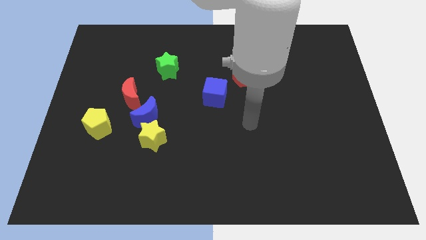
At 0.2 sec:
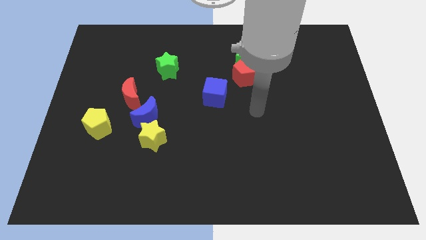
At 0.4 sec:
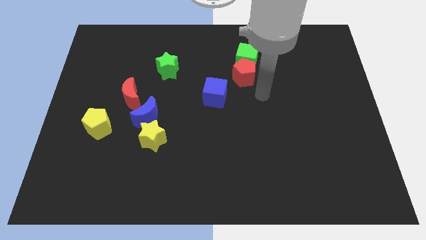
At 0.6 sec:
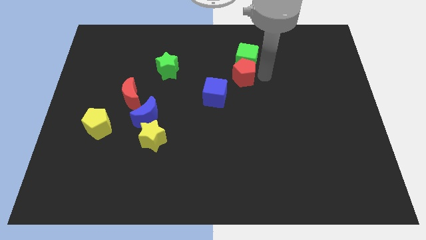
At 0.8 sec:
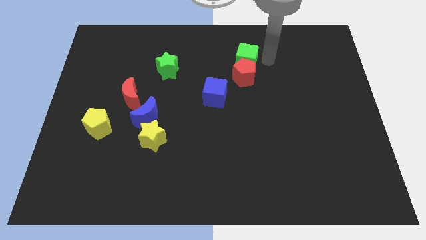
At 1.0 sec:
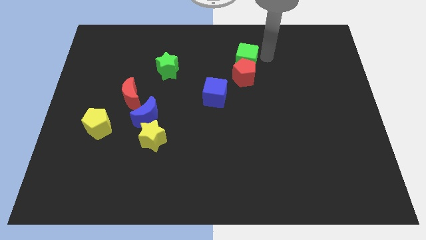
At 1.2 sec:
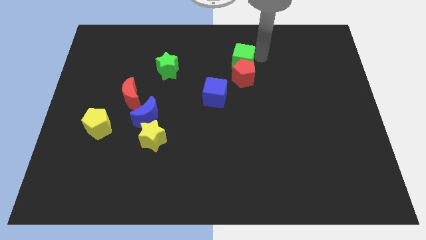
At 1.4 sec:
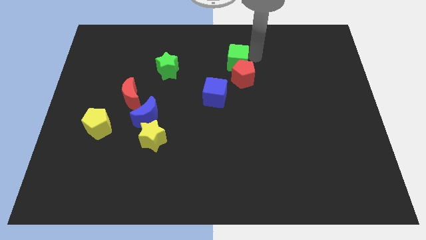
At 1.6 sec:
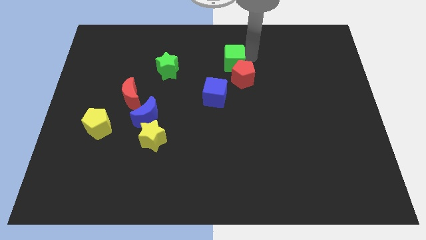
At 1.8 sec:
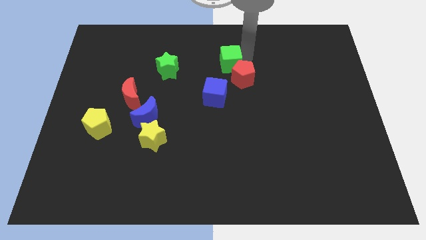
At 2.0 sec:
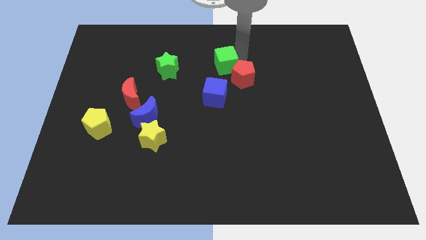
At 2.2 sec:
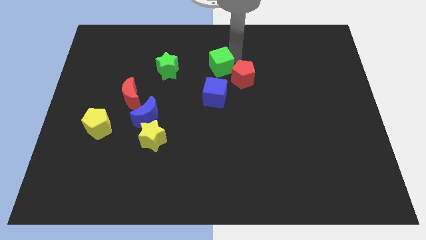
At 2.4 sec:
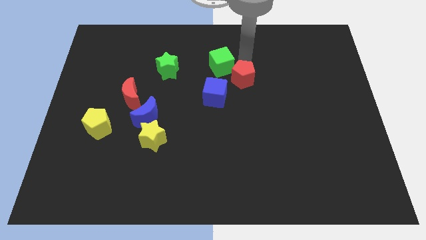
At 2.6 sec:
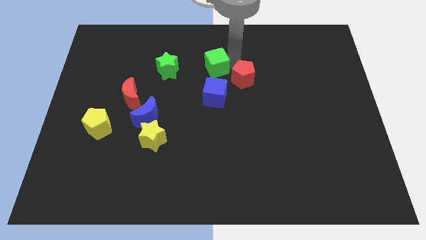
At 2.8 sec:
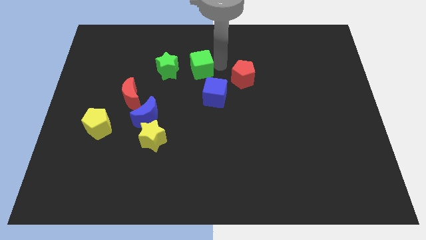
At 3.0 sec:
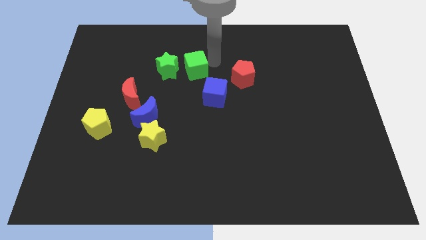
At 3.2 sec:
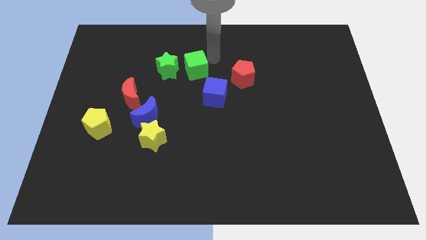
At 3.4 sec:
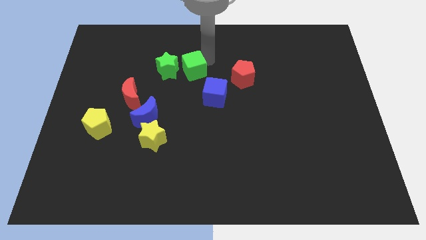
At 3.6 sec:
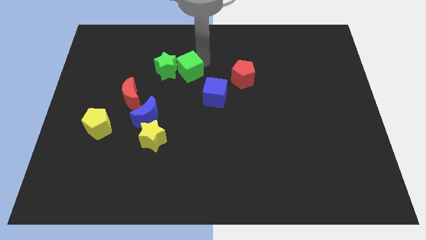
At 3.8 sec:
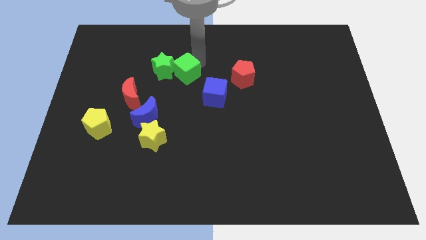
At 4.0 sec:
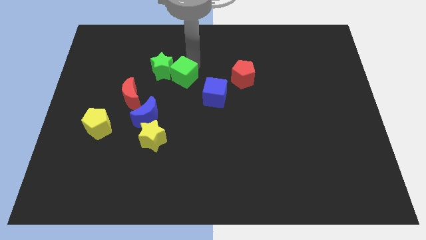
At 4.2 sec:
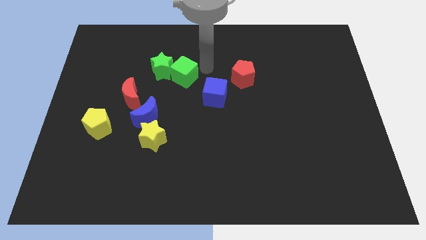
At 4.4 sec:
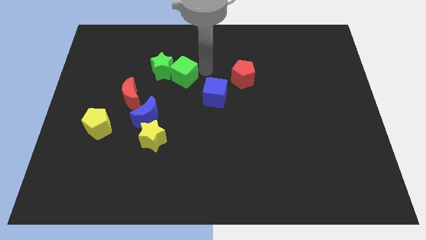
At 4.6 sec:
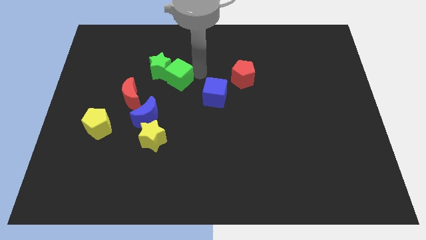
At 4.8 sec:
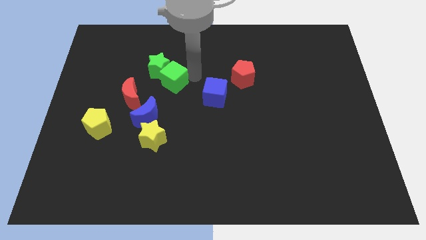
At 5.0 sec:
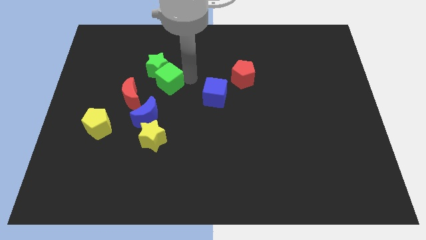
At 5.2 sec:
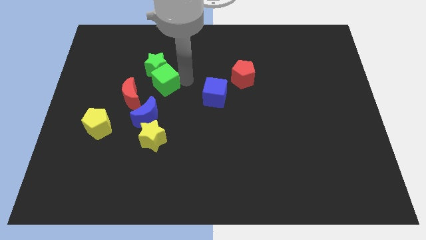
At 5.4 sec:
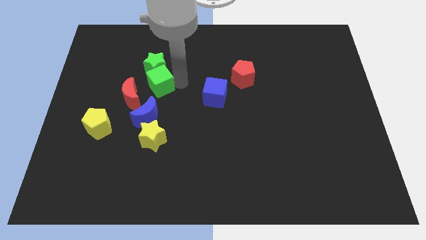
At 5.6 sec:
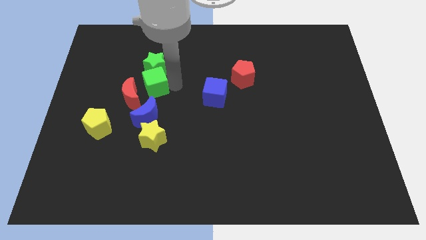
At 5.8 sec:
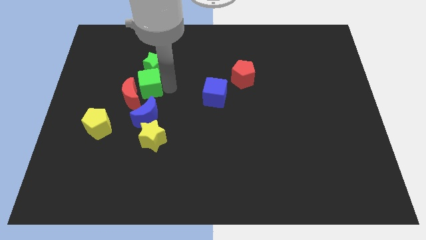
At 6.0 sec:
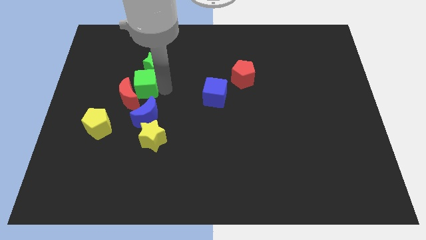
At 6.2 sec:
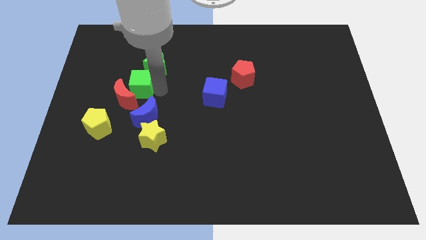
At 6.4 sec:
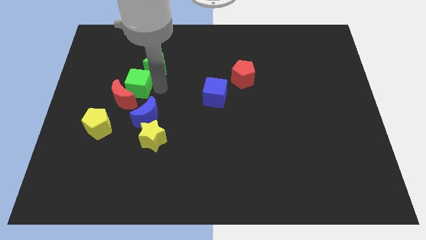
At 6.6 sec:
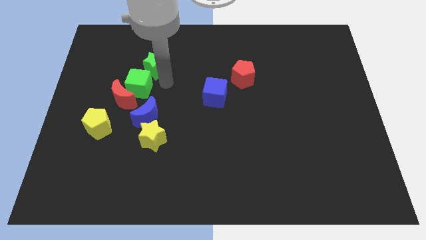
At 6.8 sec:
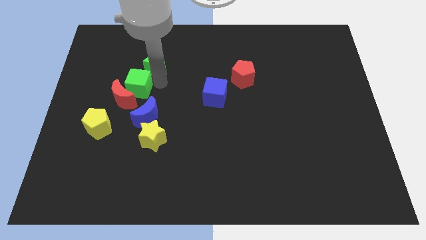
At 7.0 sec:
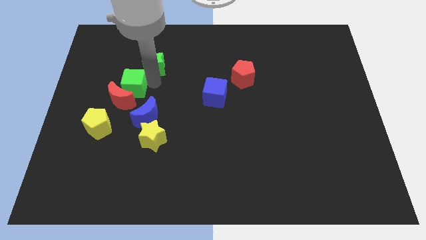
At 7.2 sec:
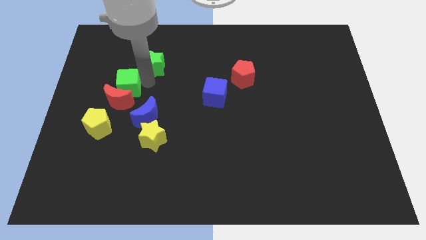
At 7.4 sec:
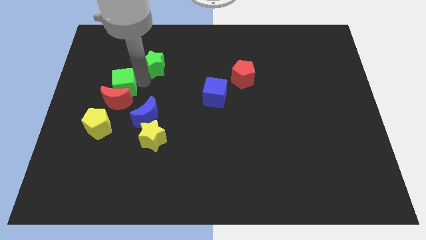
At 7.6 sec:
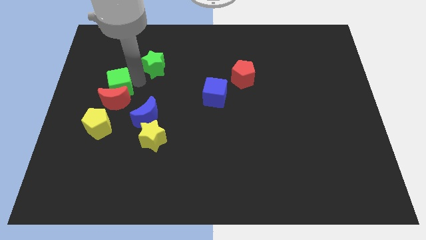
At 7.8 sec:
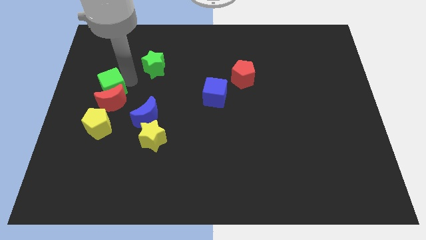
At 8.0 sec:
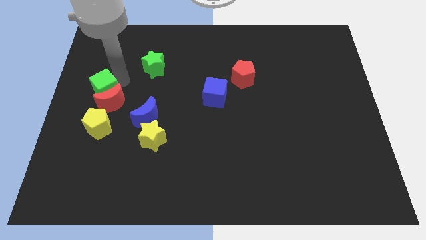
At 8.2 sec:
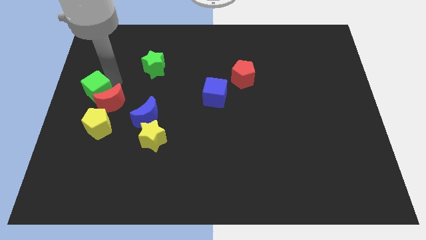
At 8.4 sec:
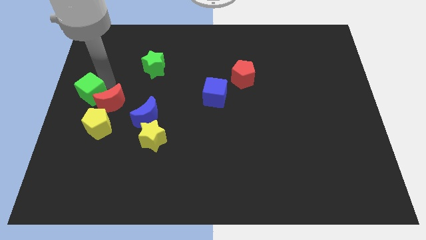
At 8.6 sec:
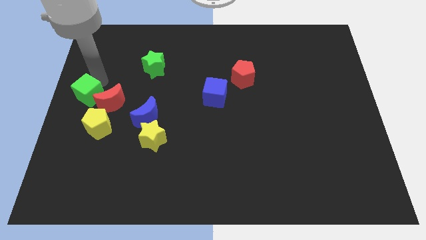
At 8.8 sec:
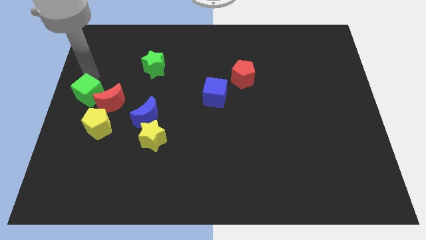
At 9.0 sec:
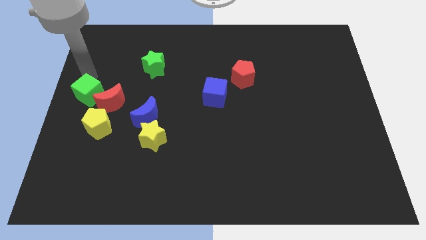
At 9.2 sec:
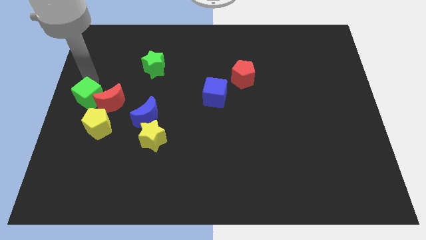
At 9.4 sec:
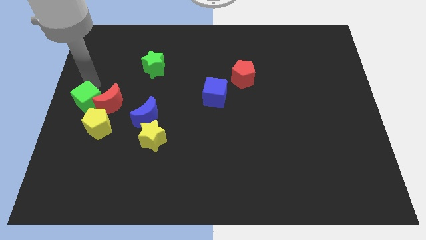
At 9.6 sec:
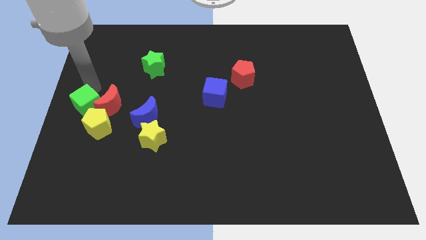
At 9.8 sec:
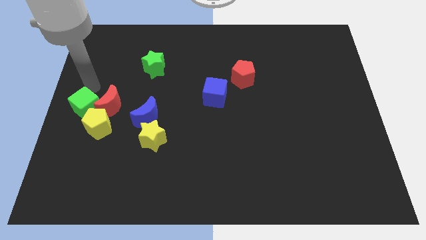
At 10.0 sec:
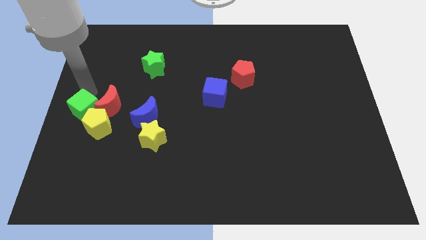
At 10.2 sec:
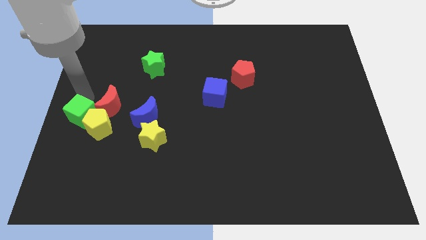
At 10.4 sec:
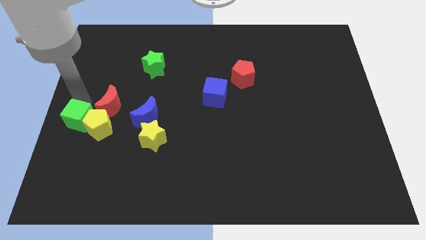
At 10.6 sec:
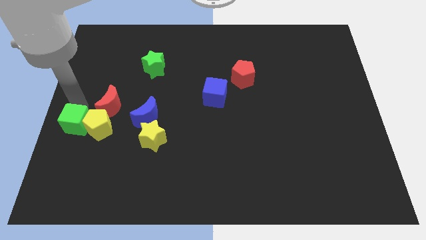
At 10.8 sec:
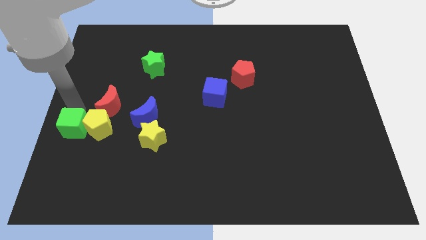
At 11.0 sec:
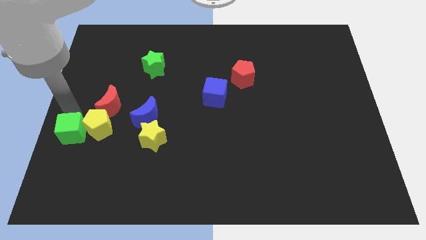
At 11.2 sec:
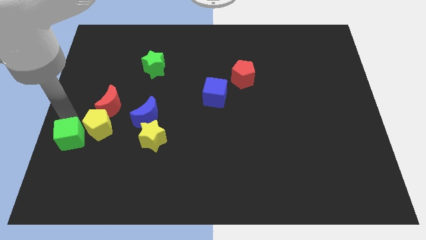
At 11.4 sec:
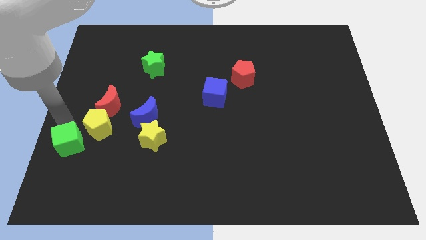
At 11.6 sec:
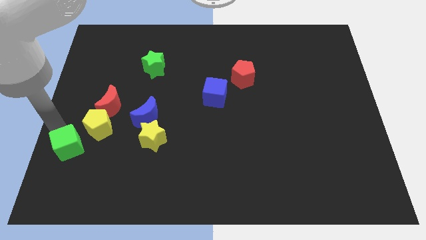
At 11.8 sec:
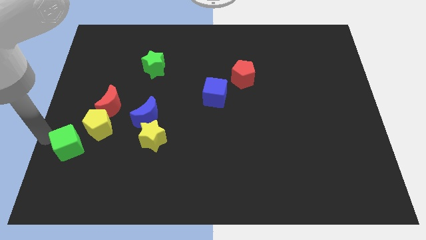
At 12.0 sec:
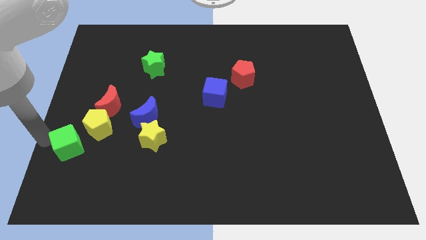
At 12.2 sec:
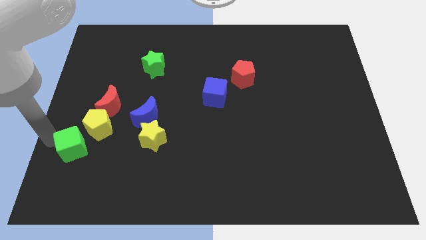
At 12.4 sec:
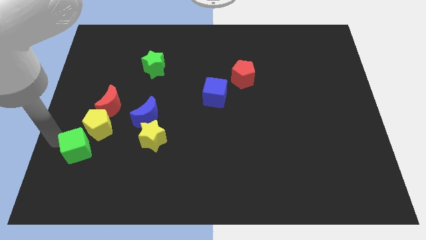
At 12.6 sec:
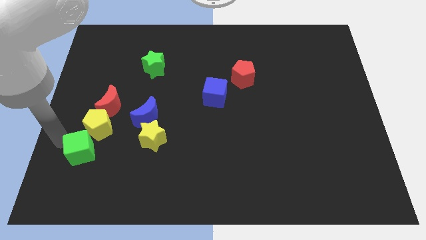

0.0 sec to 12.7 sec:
move the green cube to the left of the yellow star

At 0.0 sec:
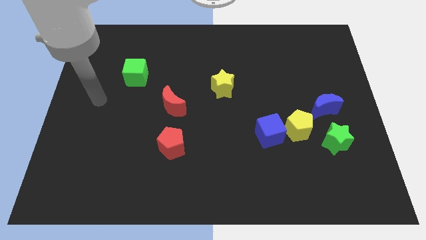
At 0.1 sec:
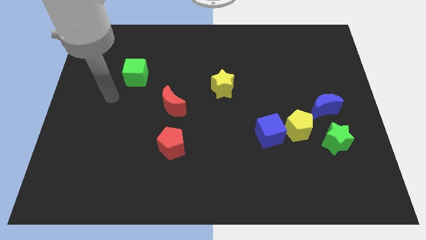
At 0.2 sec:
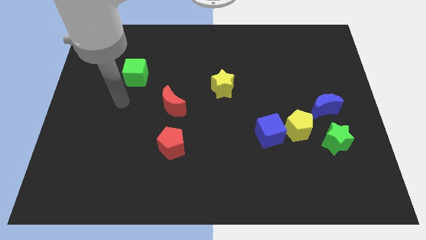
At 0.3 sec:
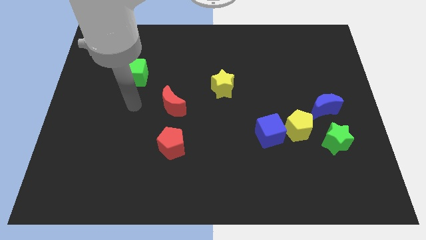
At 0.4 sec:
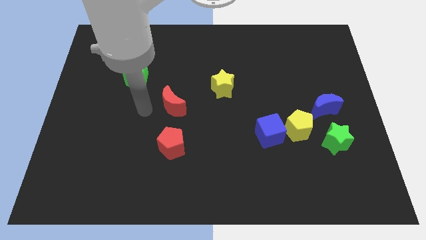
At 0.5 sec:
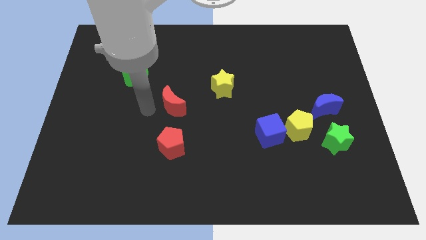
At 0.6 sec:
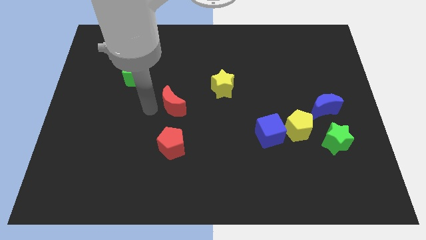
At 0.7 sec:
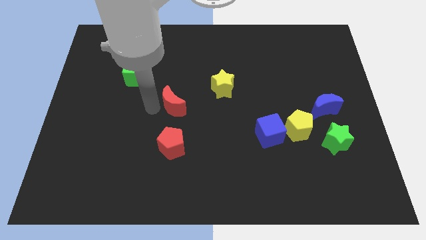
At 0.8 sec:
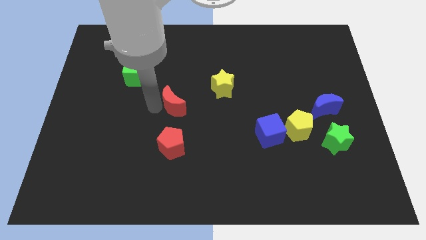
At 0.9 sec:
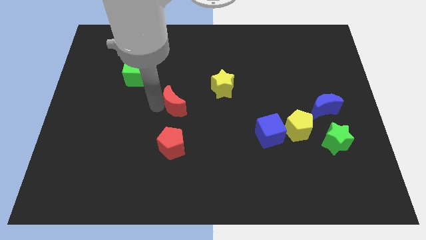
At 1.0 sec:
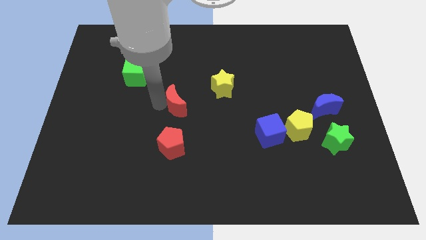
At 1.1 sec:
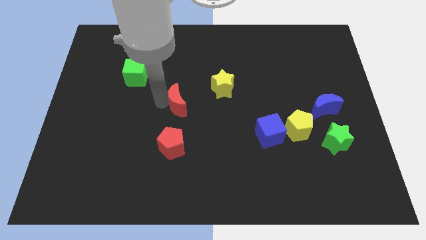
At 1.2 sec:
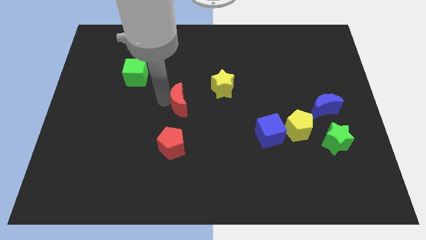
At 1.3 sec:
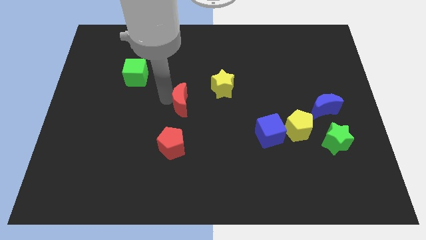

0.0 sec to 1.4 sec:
slide the red moon diagonally down and to the left of the yellow star
